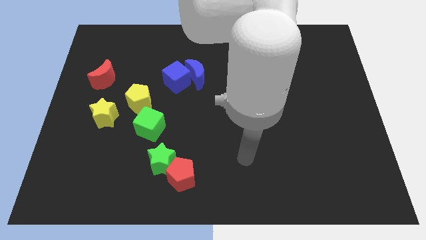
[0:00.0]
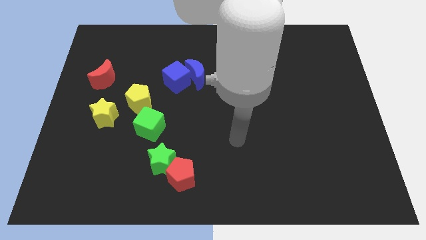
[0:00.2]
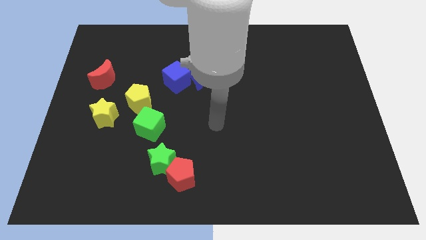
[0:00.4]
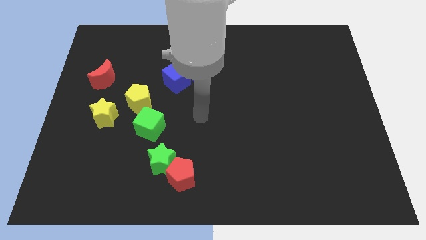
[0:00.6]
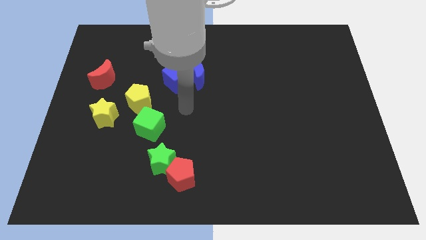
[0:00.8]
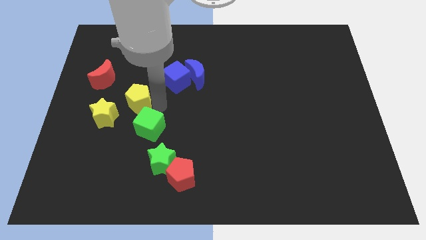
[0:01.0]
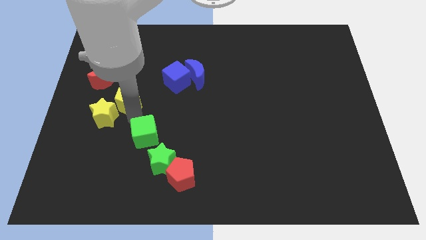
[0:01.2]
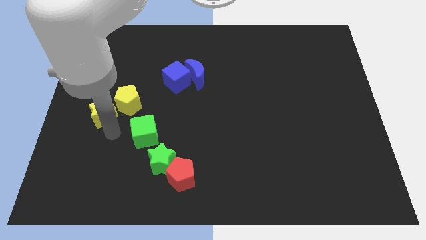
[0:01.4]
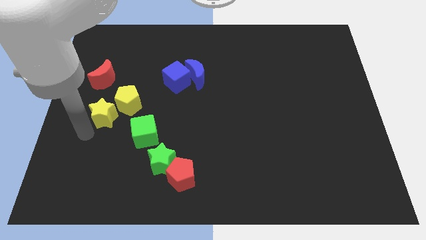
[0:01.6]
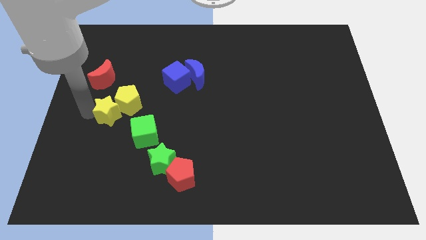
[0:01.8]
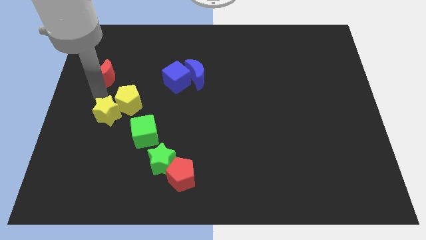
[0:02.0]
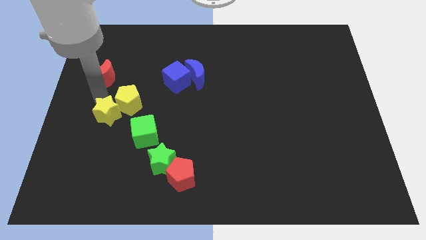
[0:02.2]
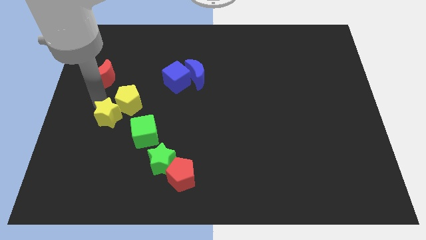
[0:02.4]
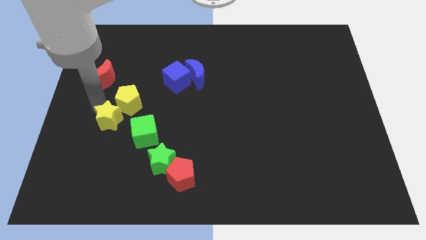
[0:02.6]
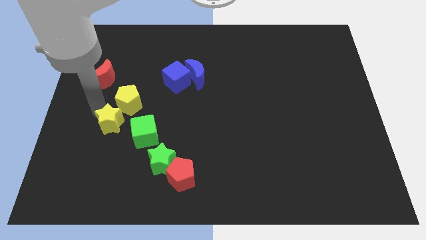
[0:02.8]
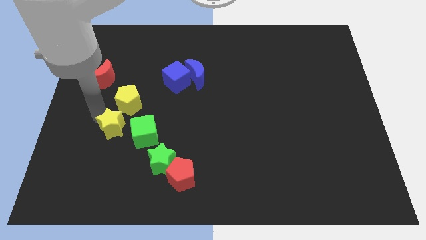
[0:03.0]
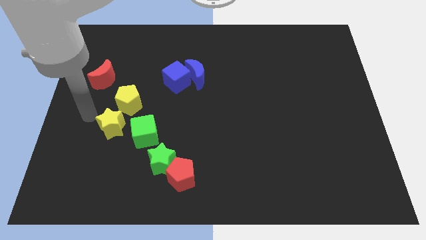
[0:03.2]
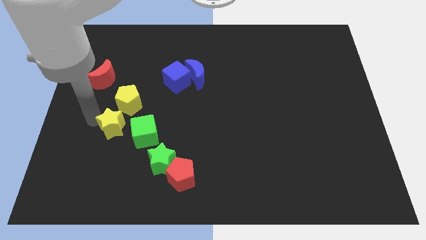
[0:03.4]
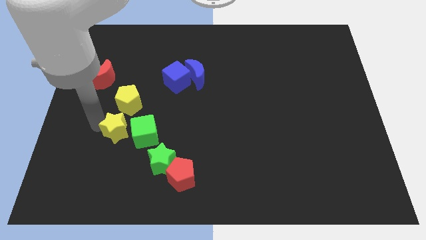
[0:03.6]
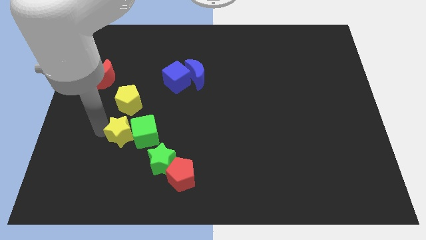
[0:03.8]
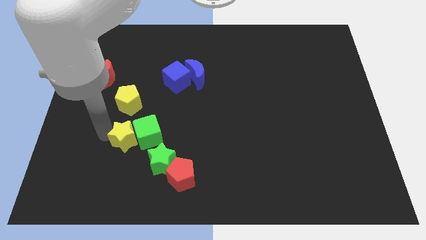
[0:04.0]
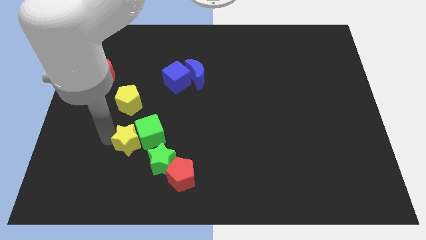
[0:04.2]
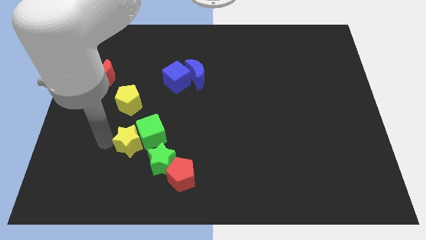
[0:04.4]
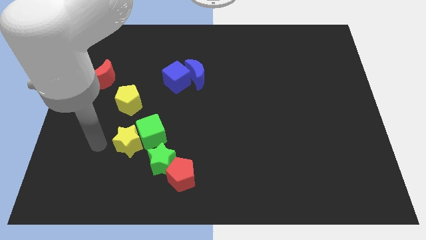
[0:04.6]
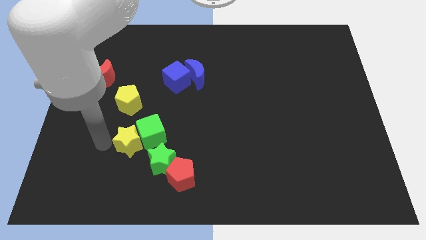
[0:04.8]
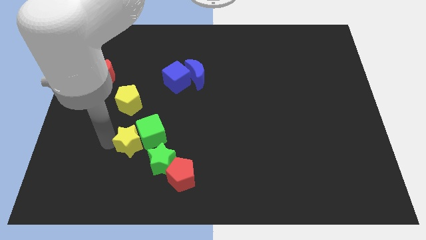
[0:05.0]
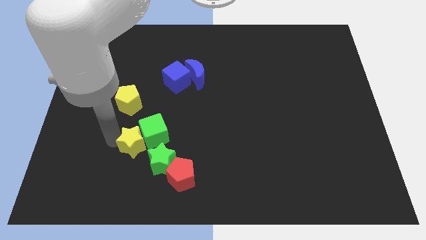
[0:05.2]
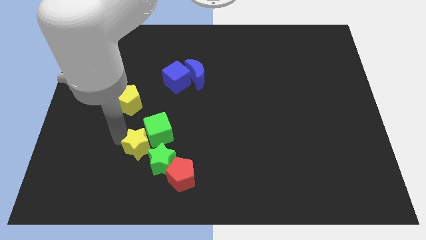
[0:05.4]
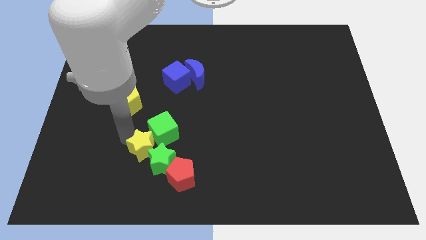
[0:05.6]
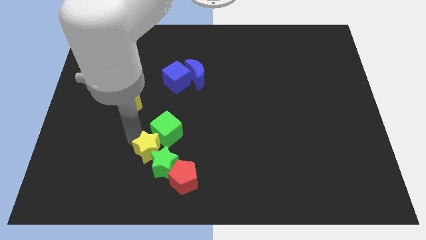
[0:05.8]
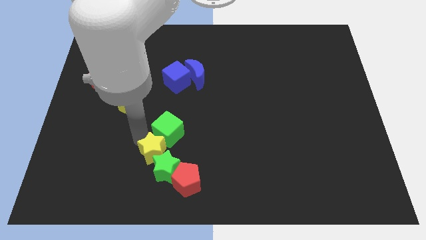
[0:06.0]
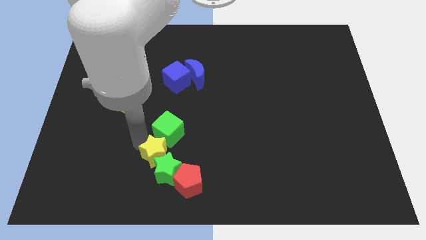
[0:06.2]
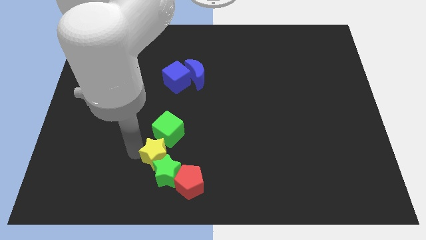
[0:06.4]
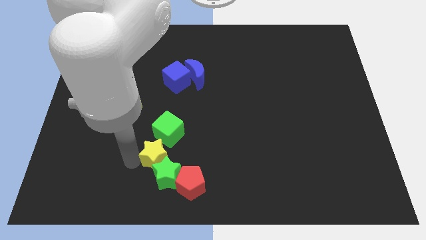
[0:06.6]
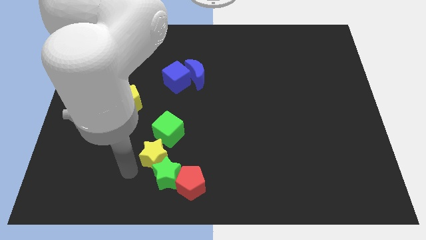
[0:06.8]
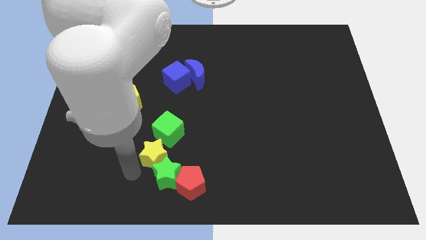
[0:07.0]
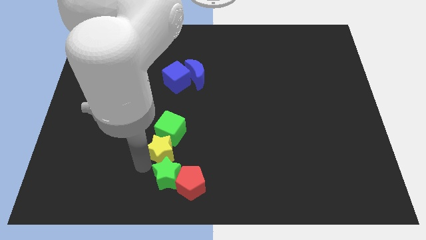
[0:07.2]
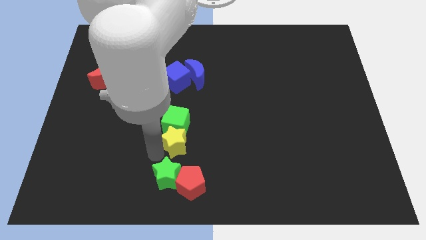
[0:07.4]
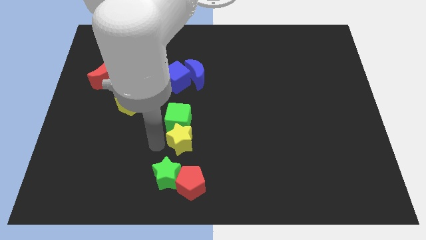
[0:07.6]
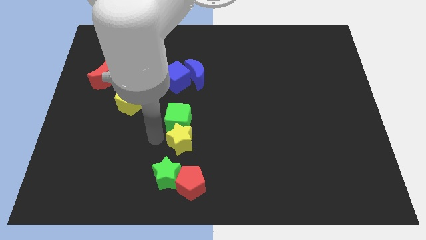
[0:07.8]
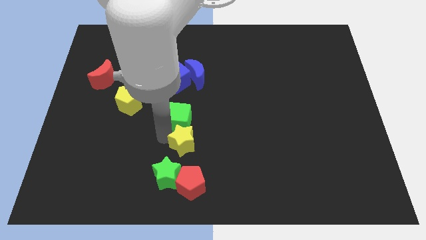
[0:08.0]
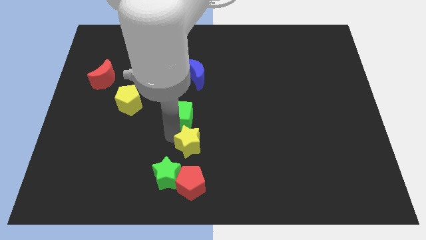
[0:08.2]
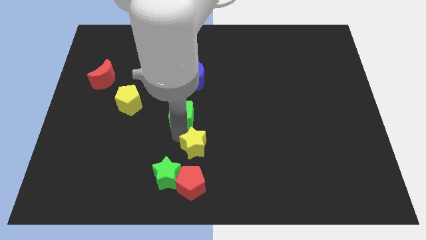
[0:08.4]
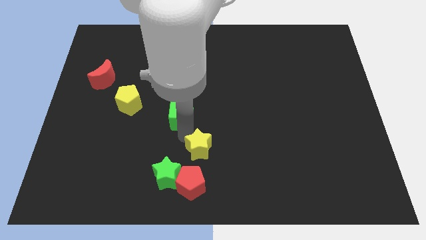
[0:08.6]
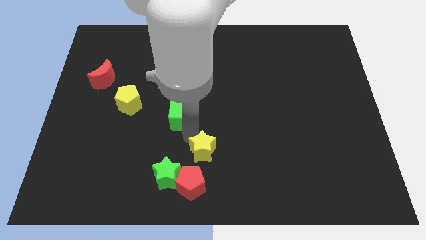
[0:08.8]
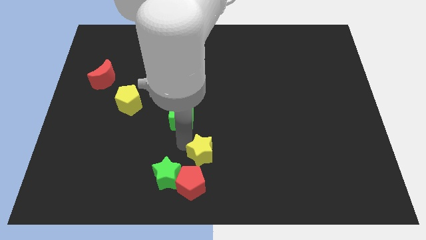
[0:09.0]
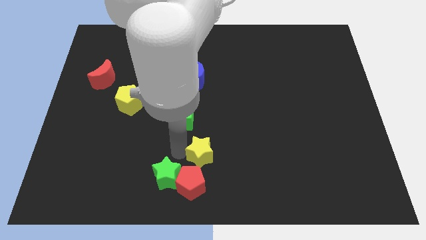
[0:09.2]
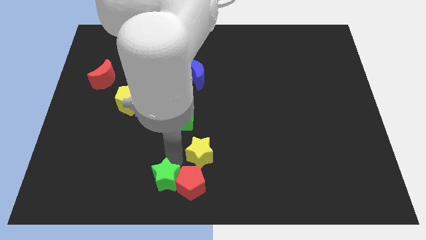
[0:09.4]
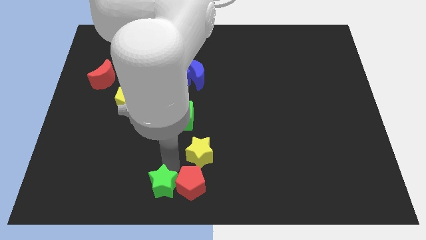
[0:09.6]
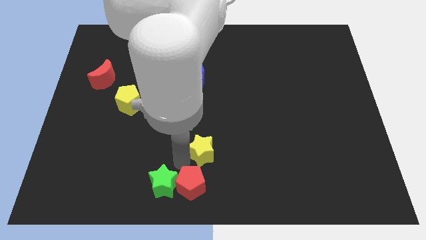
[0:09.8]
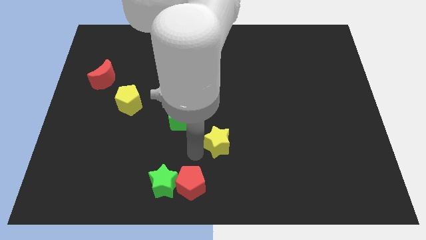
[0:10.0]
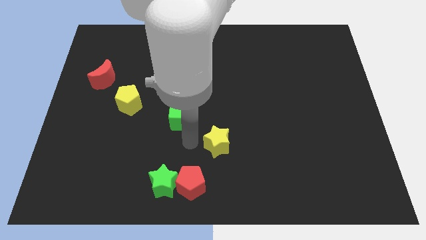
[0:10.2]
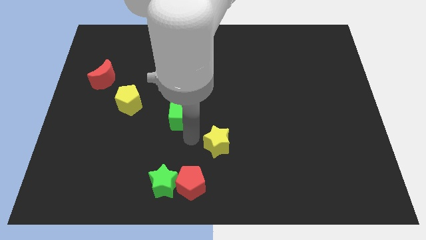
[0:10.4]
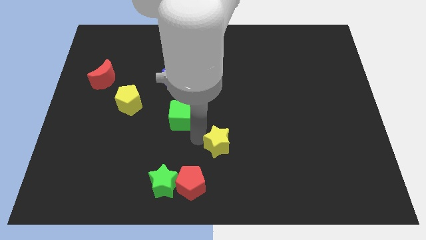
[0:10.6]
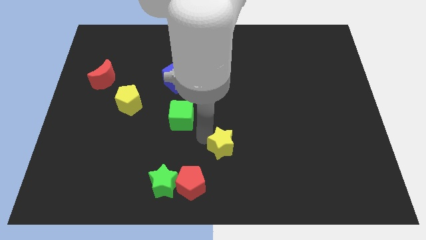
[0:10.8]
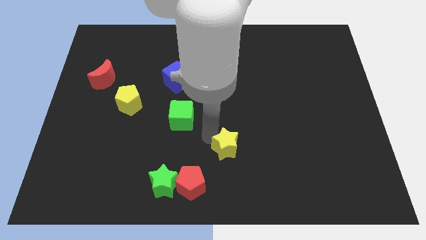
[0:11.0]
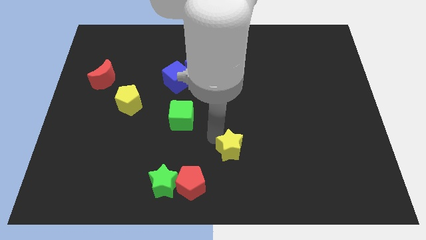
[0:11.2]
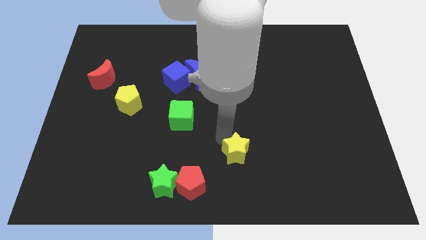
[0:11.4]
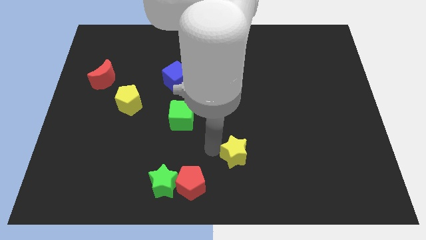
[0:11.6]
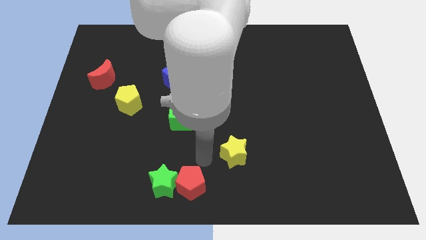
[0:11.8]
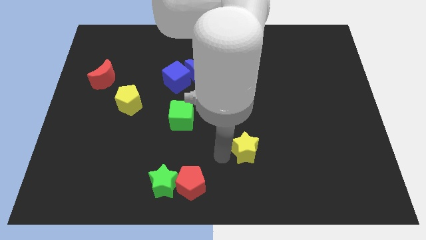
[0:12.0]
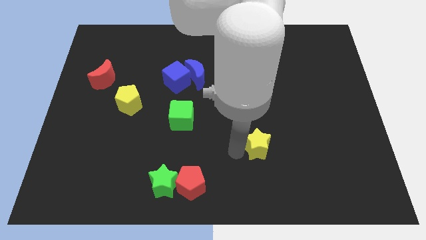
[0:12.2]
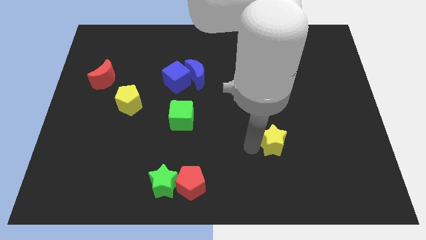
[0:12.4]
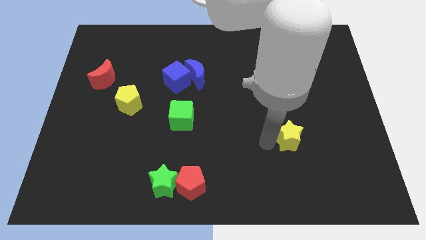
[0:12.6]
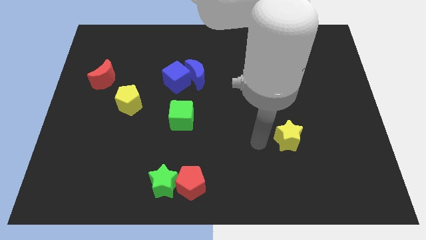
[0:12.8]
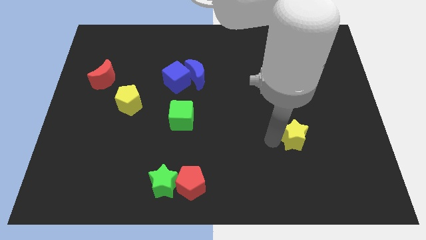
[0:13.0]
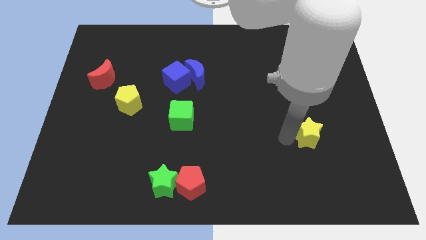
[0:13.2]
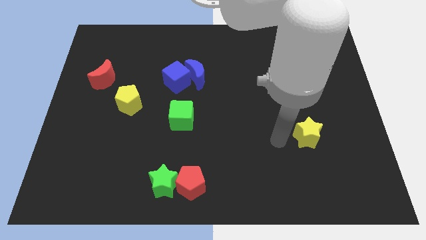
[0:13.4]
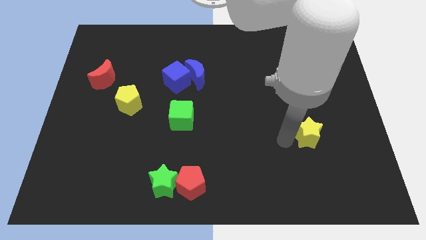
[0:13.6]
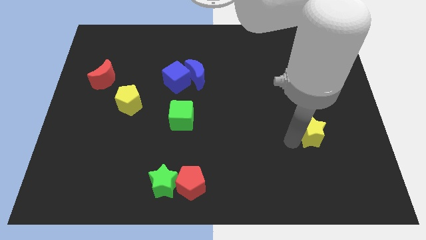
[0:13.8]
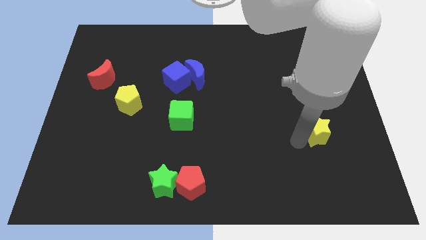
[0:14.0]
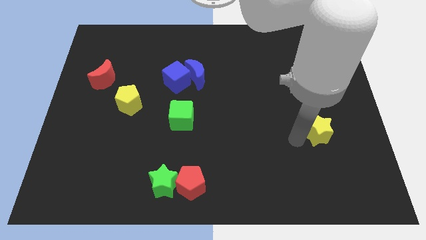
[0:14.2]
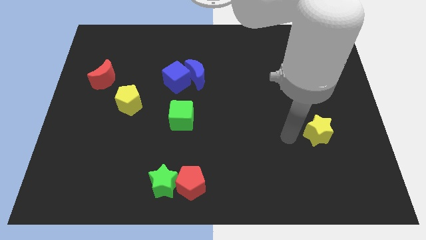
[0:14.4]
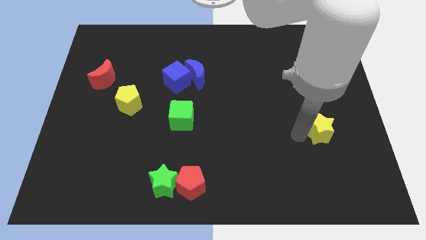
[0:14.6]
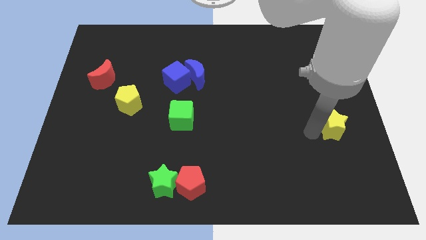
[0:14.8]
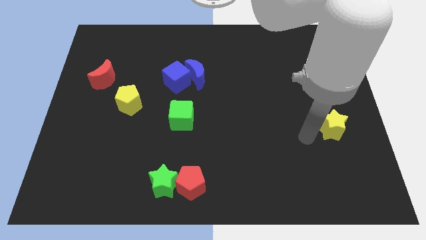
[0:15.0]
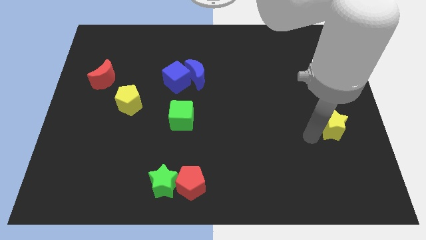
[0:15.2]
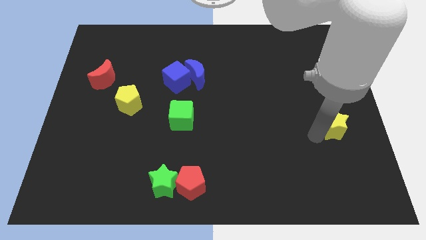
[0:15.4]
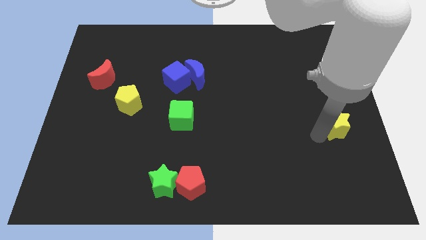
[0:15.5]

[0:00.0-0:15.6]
push the yellow star to the right side
